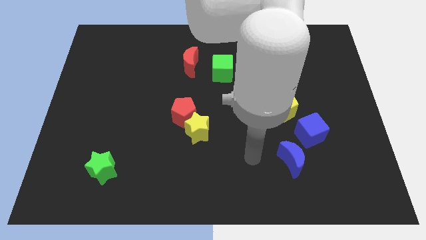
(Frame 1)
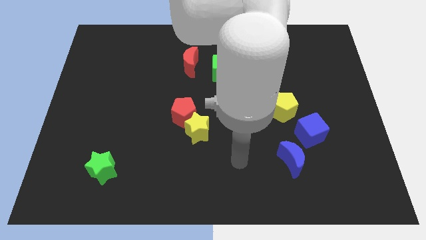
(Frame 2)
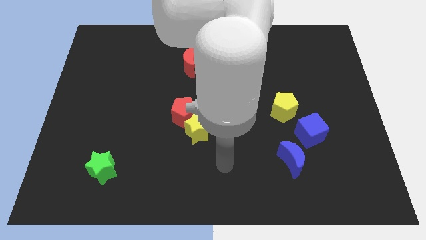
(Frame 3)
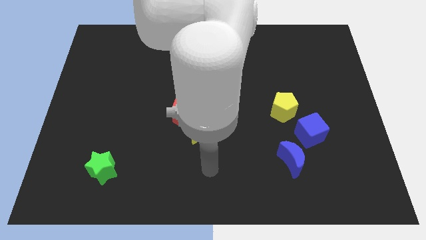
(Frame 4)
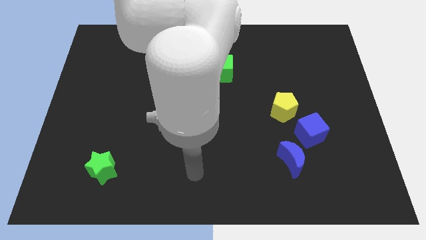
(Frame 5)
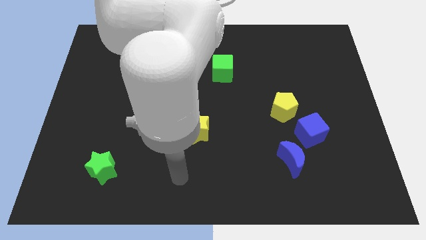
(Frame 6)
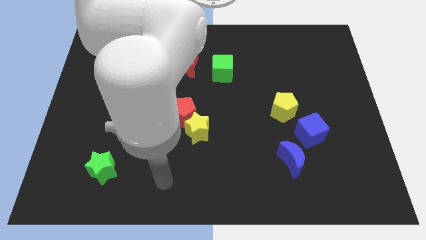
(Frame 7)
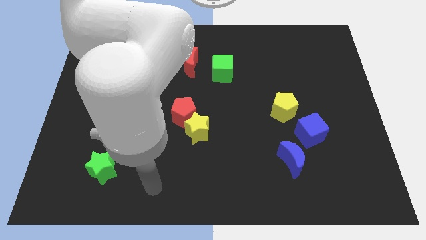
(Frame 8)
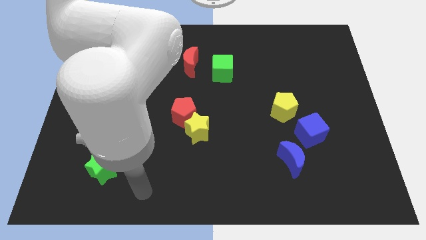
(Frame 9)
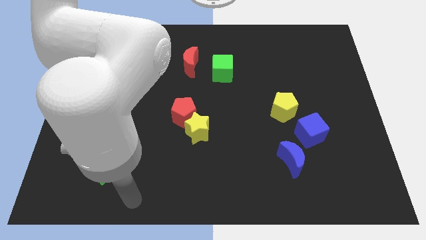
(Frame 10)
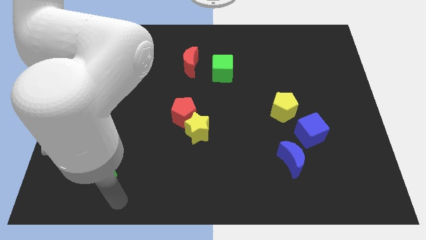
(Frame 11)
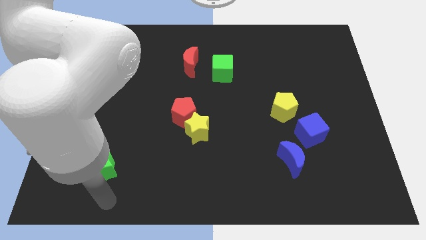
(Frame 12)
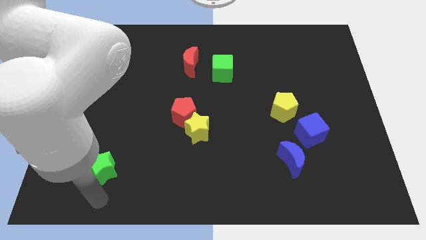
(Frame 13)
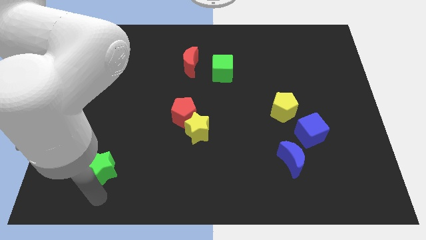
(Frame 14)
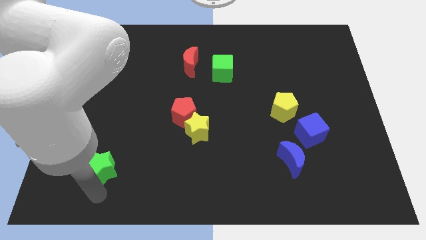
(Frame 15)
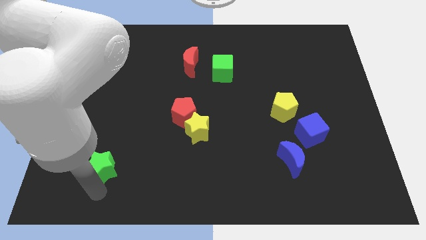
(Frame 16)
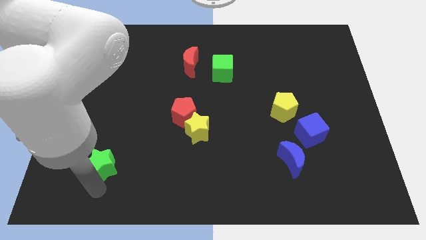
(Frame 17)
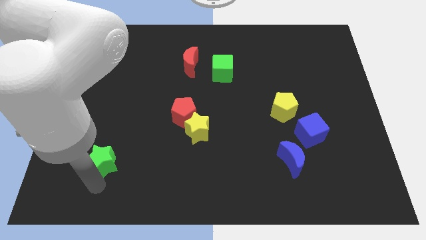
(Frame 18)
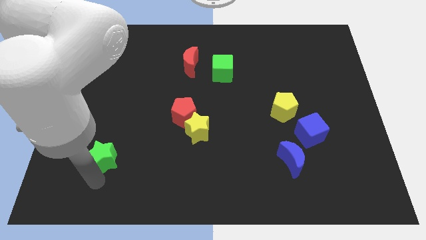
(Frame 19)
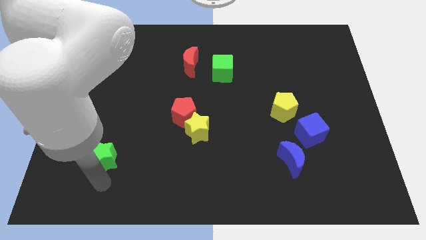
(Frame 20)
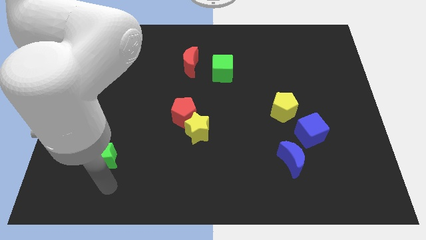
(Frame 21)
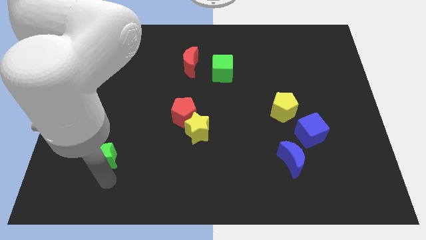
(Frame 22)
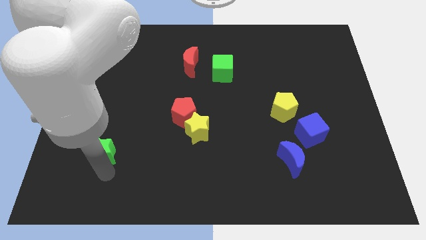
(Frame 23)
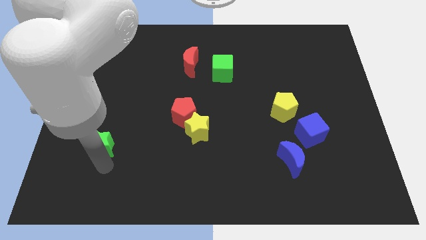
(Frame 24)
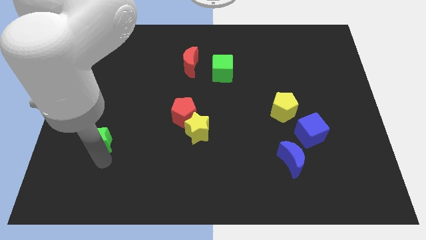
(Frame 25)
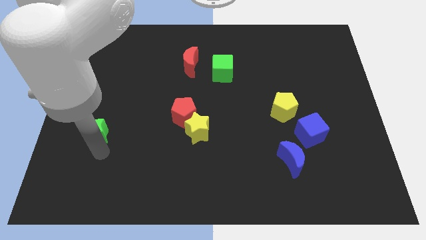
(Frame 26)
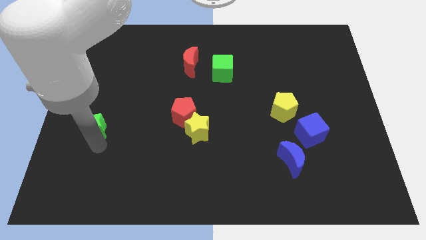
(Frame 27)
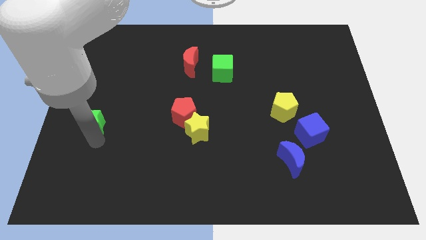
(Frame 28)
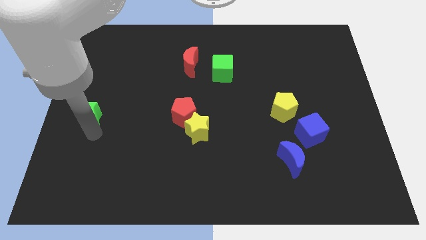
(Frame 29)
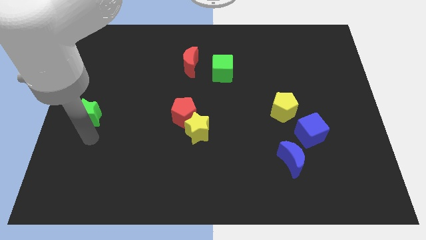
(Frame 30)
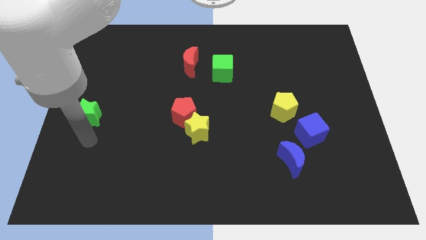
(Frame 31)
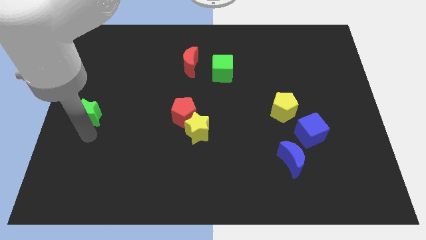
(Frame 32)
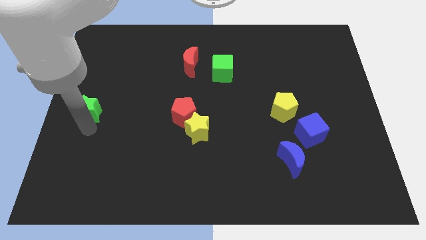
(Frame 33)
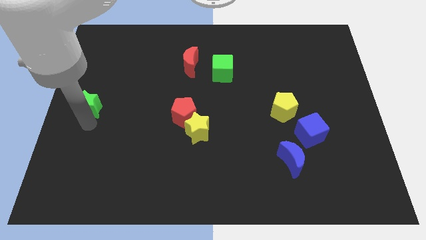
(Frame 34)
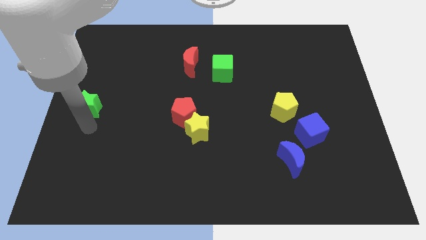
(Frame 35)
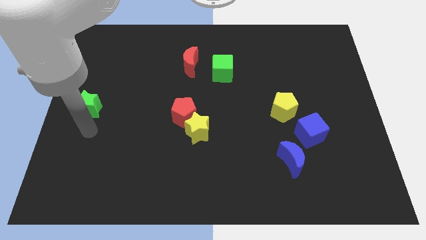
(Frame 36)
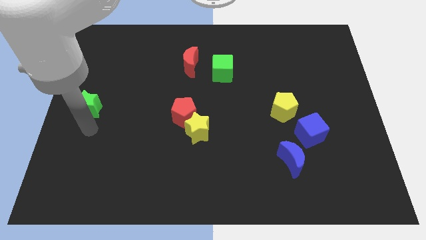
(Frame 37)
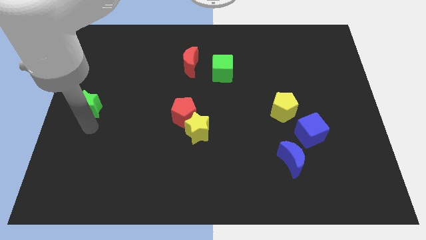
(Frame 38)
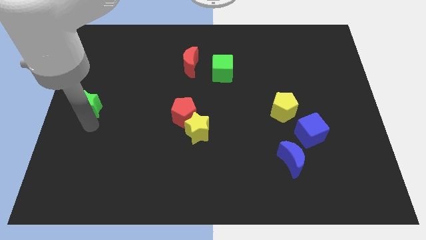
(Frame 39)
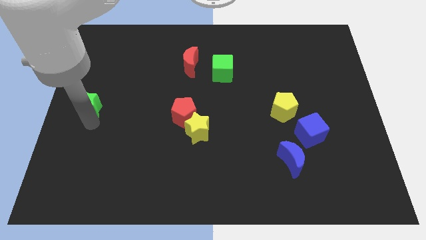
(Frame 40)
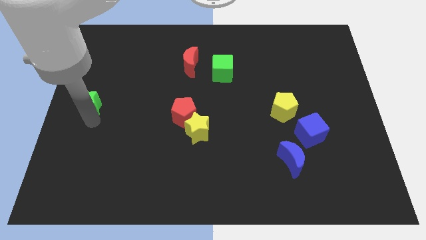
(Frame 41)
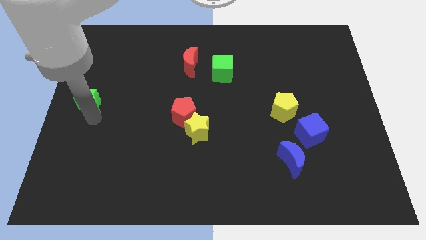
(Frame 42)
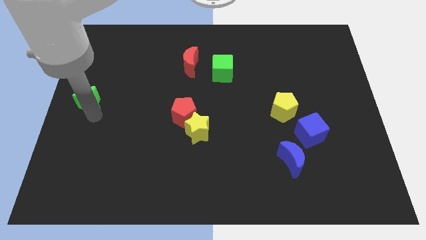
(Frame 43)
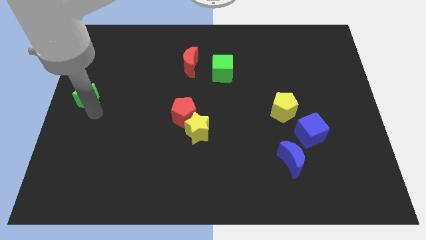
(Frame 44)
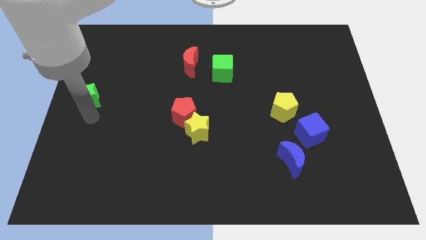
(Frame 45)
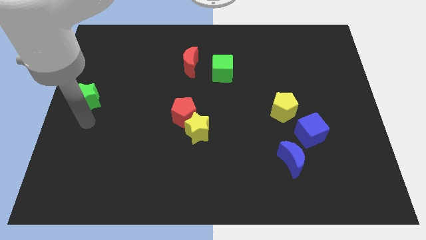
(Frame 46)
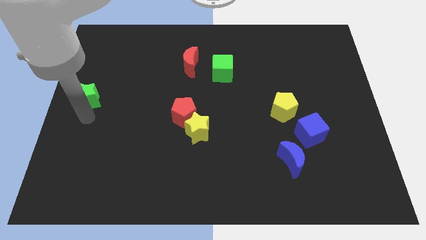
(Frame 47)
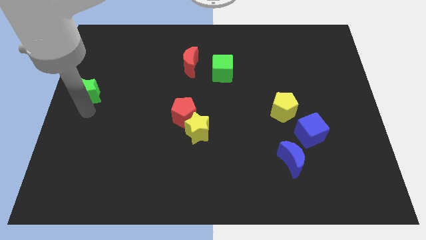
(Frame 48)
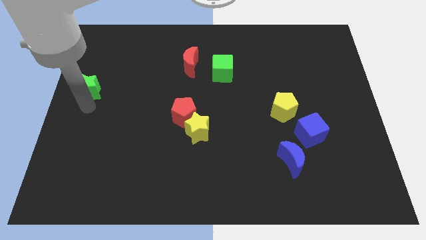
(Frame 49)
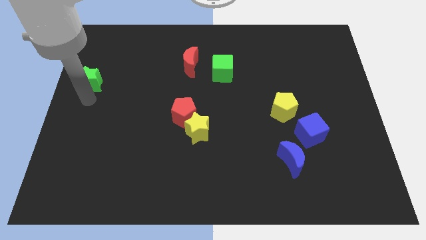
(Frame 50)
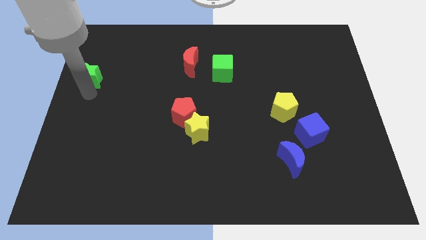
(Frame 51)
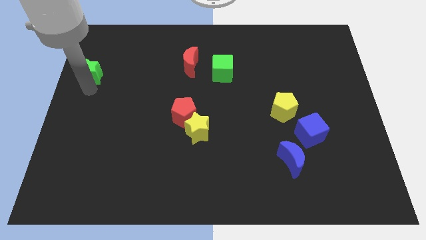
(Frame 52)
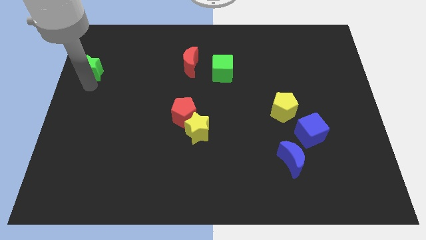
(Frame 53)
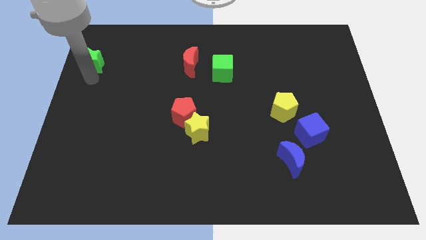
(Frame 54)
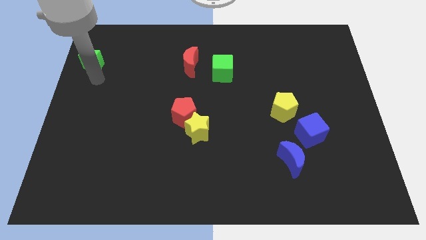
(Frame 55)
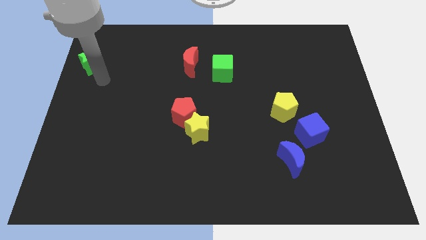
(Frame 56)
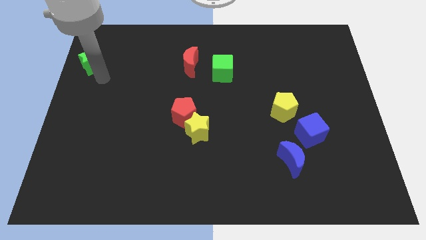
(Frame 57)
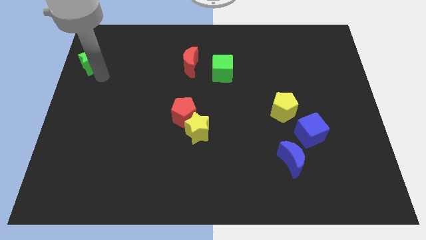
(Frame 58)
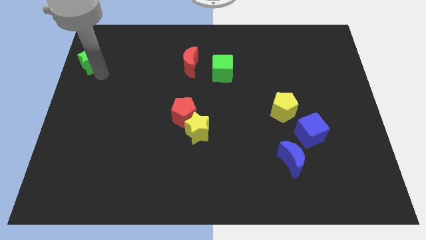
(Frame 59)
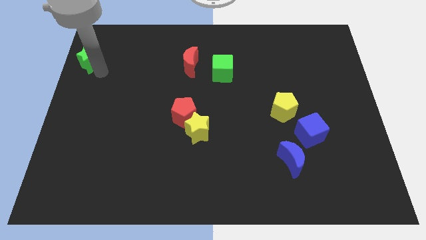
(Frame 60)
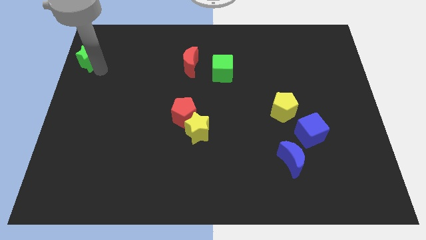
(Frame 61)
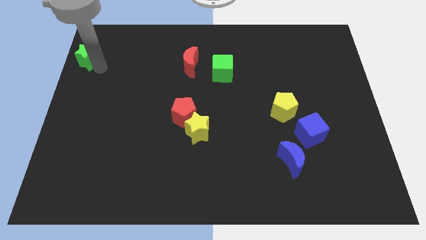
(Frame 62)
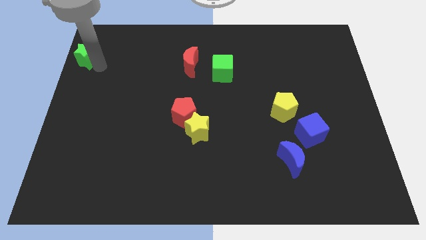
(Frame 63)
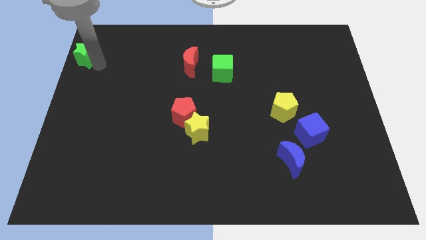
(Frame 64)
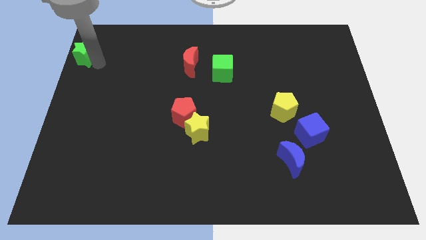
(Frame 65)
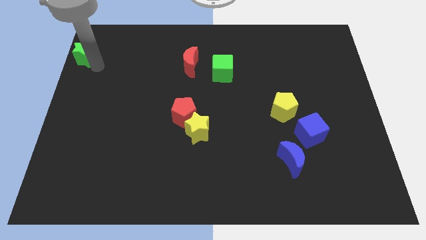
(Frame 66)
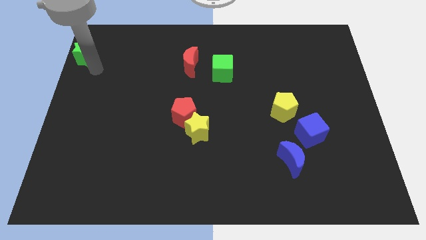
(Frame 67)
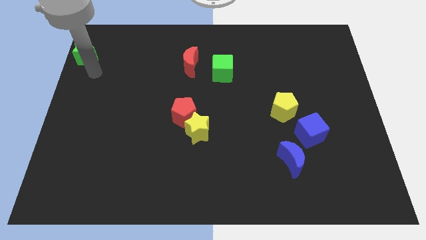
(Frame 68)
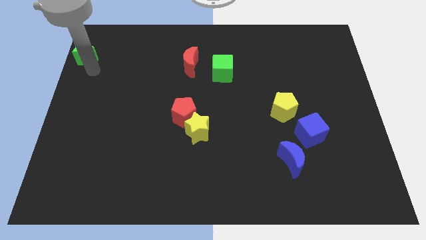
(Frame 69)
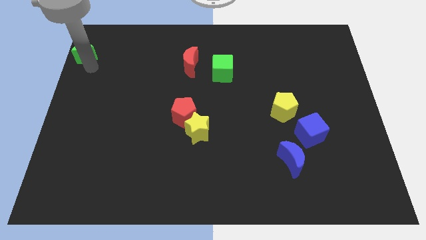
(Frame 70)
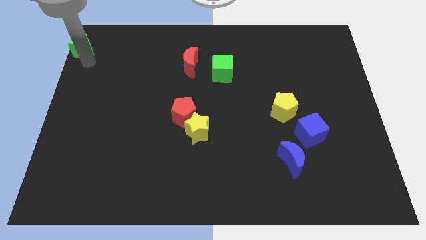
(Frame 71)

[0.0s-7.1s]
move the green star to the upper left corner
